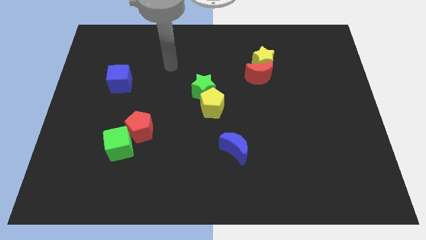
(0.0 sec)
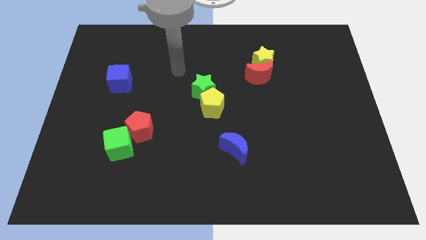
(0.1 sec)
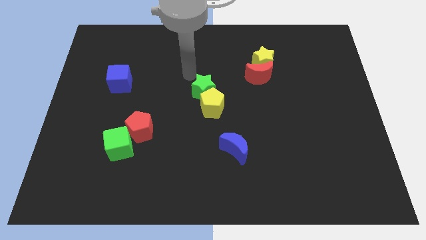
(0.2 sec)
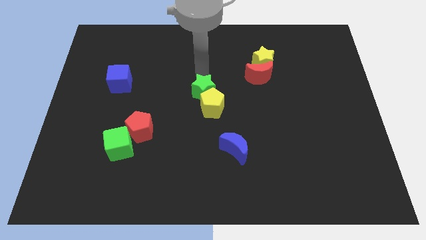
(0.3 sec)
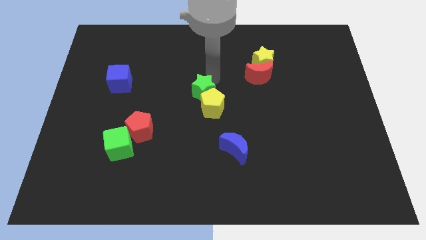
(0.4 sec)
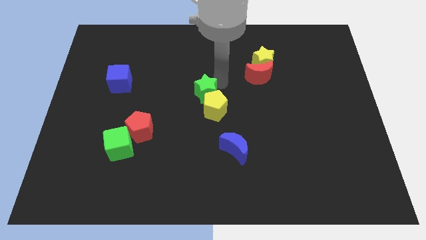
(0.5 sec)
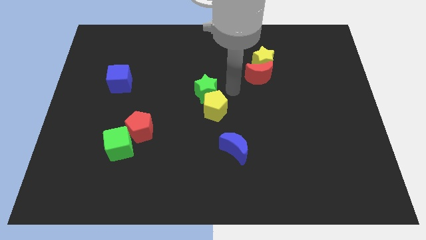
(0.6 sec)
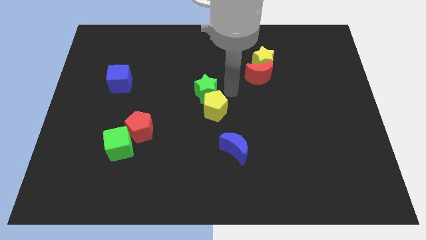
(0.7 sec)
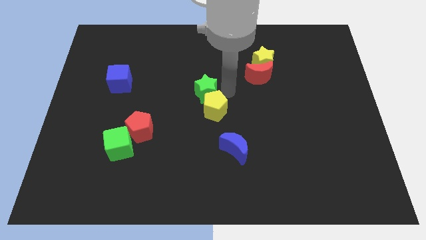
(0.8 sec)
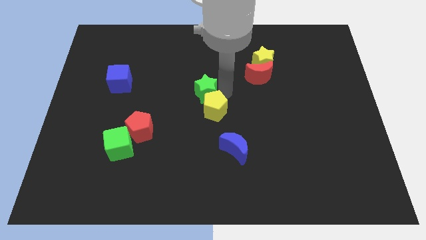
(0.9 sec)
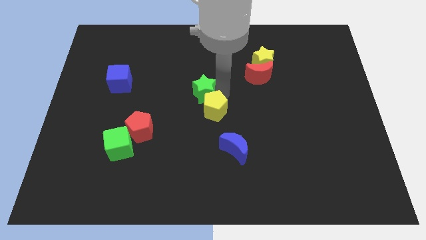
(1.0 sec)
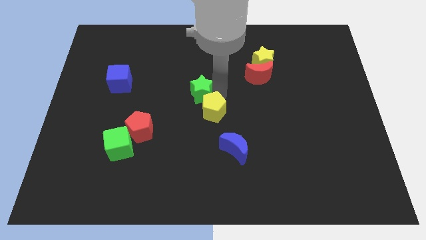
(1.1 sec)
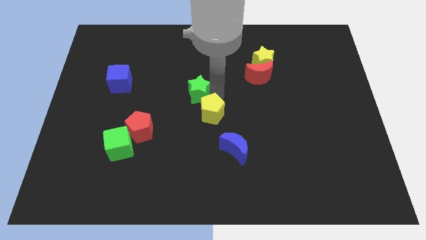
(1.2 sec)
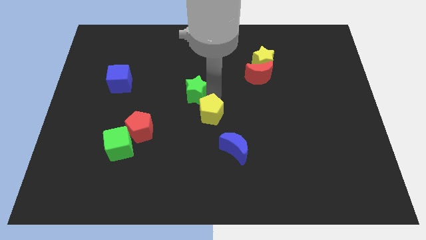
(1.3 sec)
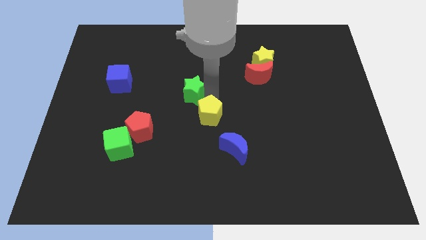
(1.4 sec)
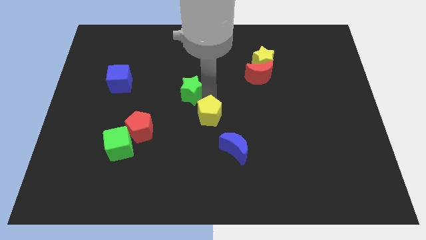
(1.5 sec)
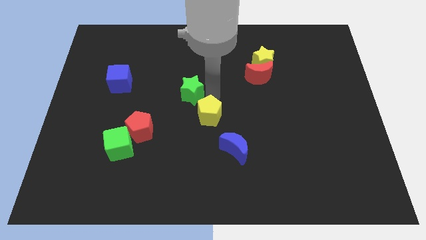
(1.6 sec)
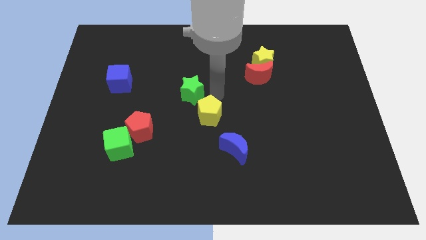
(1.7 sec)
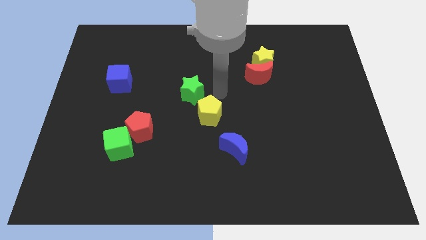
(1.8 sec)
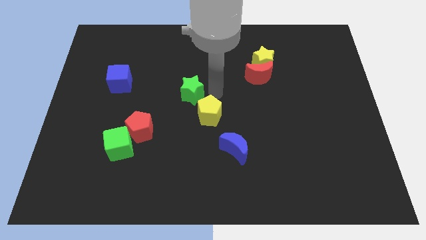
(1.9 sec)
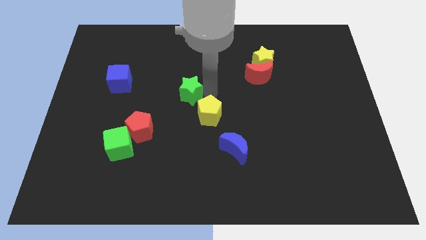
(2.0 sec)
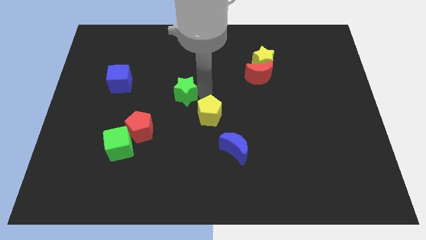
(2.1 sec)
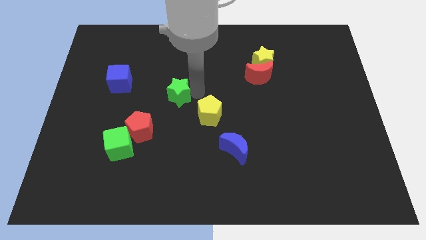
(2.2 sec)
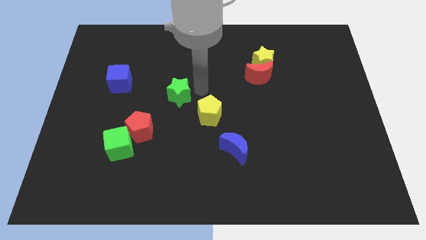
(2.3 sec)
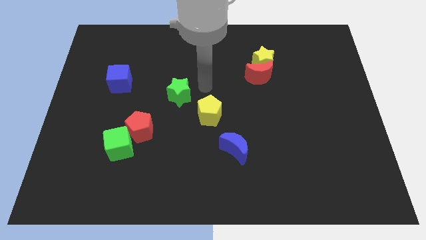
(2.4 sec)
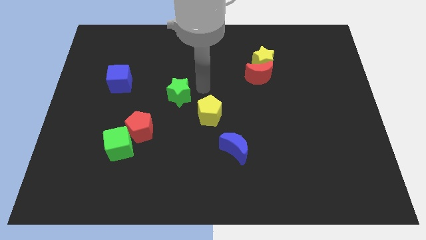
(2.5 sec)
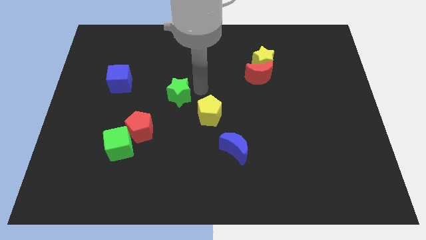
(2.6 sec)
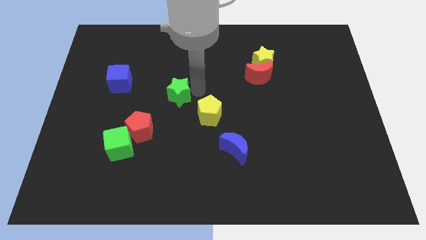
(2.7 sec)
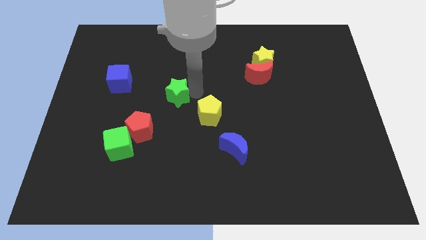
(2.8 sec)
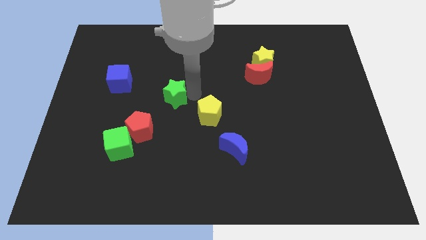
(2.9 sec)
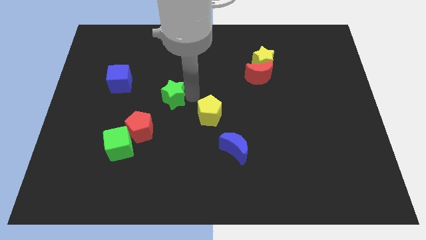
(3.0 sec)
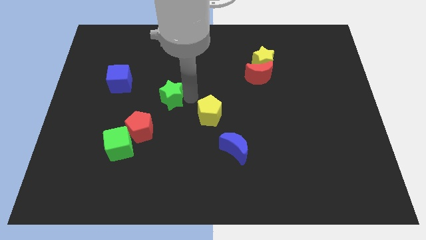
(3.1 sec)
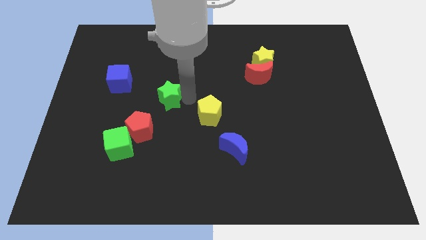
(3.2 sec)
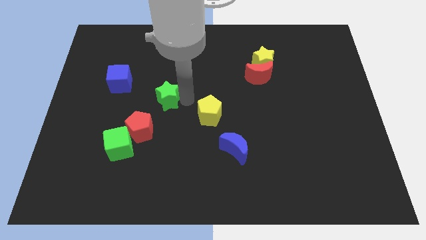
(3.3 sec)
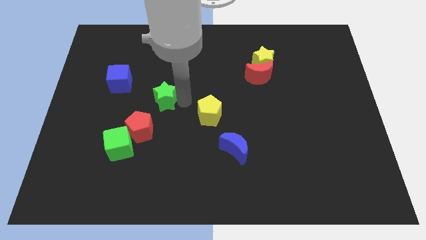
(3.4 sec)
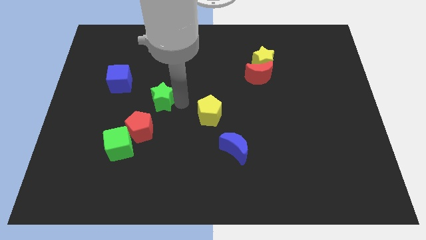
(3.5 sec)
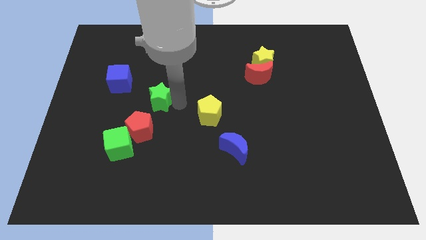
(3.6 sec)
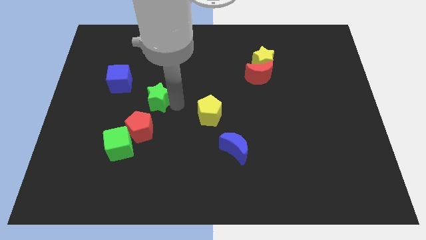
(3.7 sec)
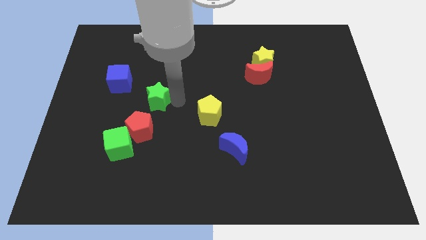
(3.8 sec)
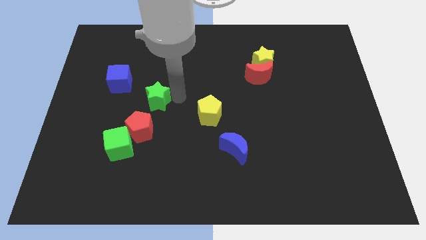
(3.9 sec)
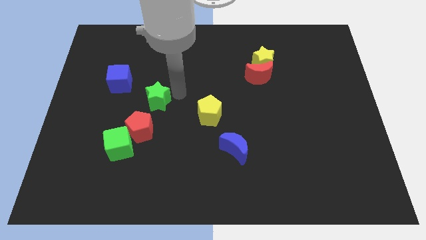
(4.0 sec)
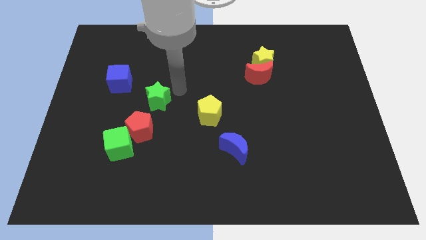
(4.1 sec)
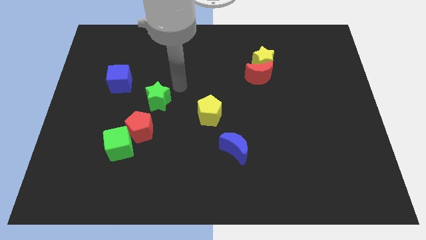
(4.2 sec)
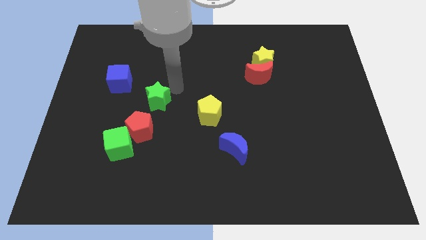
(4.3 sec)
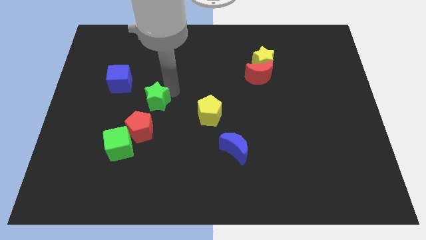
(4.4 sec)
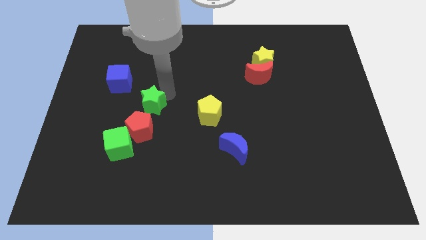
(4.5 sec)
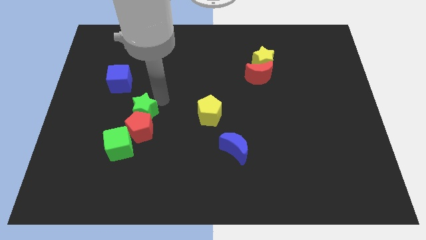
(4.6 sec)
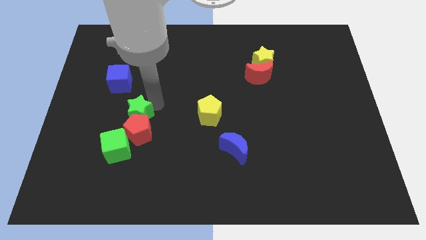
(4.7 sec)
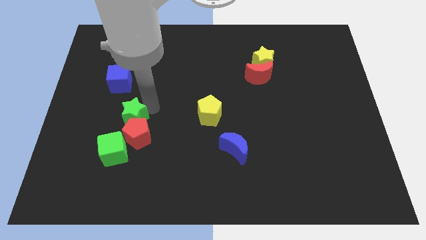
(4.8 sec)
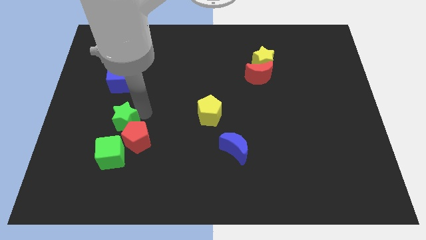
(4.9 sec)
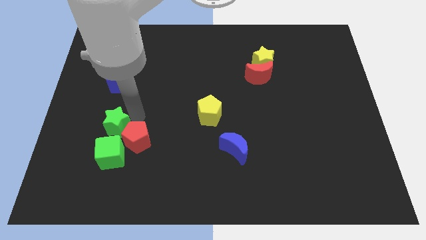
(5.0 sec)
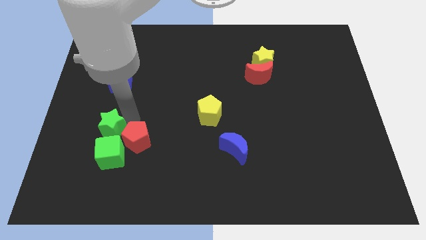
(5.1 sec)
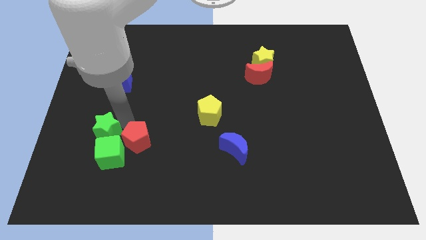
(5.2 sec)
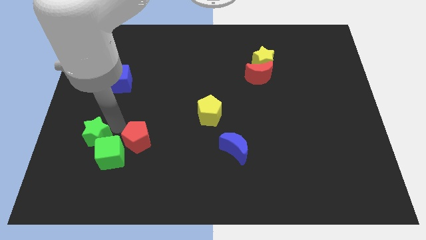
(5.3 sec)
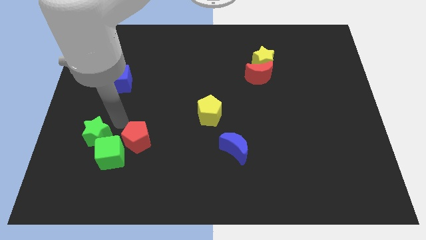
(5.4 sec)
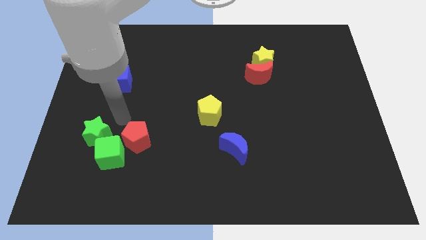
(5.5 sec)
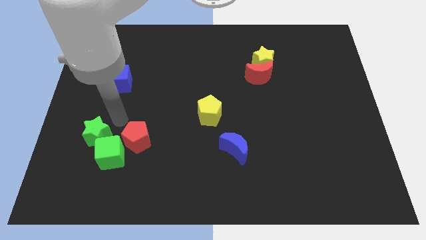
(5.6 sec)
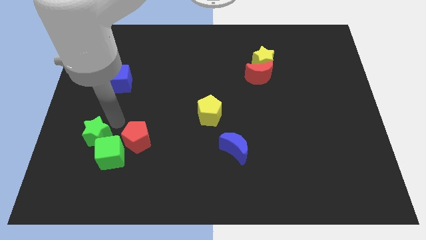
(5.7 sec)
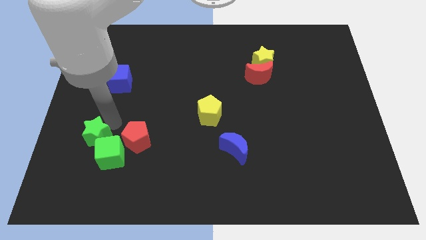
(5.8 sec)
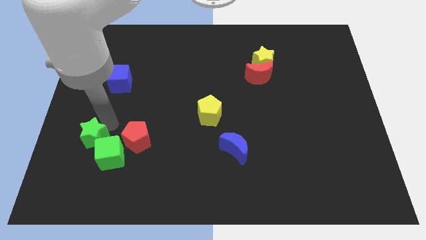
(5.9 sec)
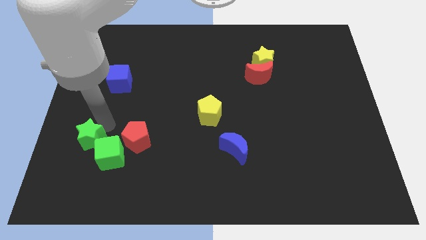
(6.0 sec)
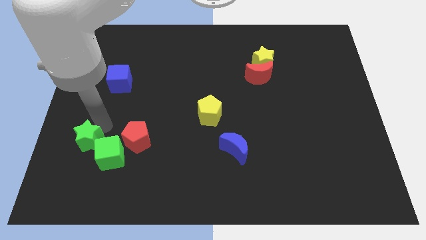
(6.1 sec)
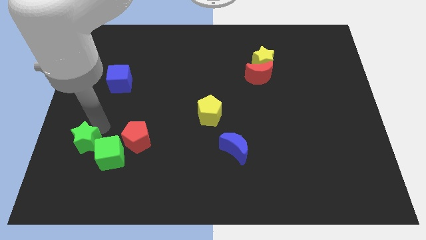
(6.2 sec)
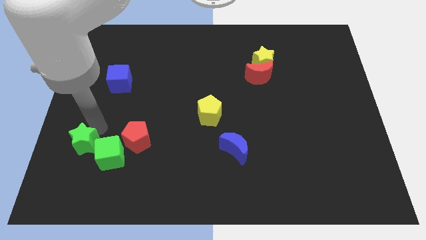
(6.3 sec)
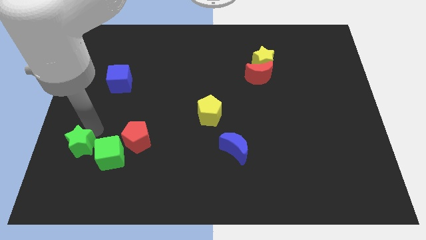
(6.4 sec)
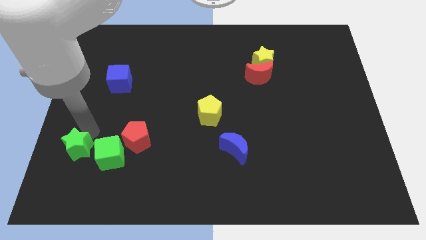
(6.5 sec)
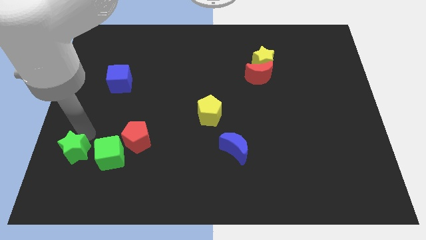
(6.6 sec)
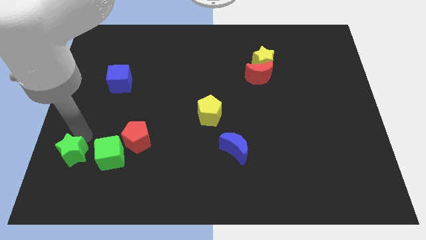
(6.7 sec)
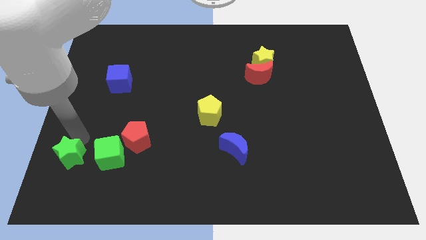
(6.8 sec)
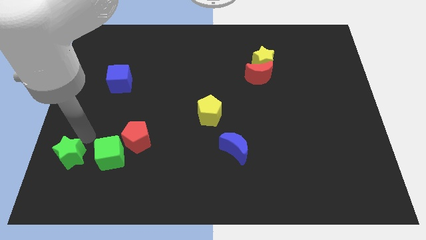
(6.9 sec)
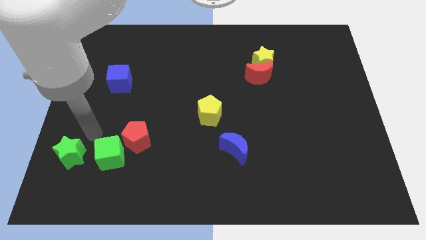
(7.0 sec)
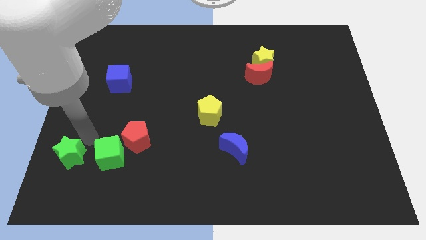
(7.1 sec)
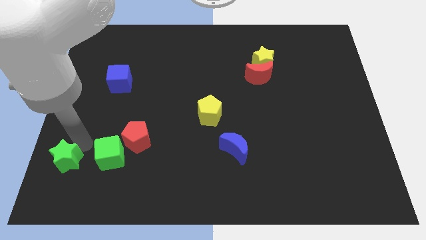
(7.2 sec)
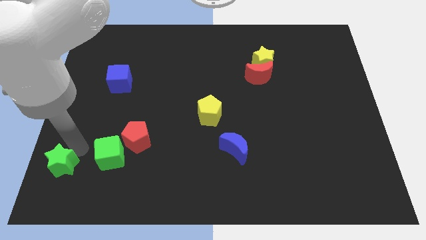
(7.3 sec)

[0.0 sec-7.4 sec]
slide the green star to the lower left corner
